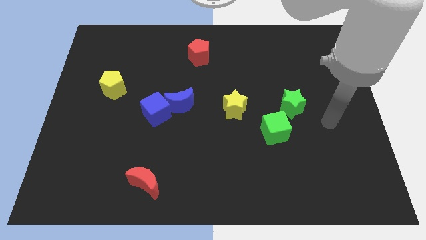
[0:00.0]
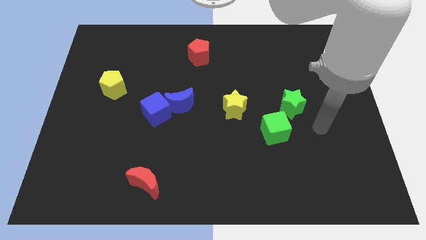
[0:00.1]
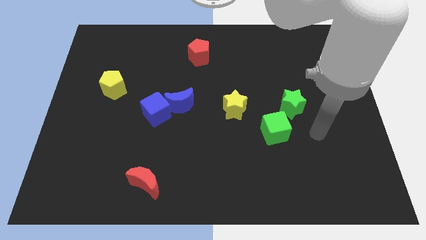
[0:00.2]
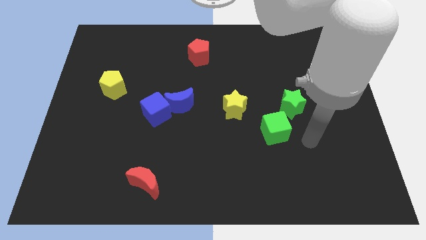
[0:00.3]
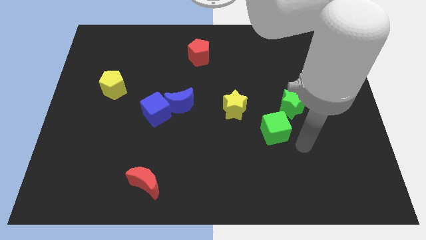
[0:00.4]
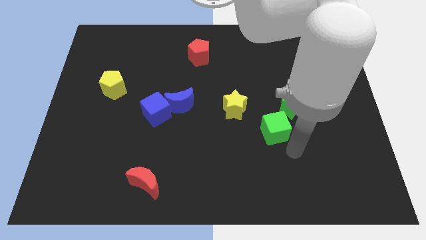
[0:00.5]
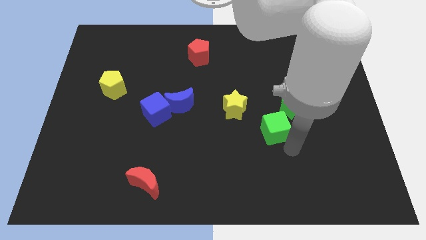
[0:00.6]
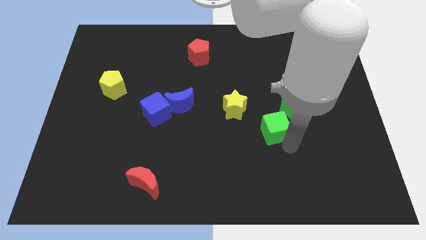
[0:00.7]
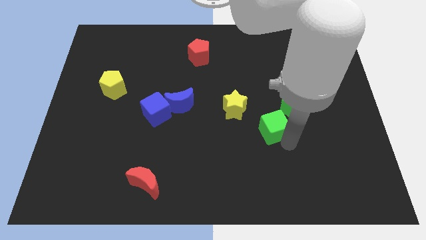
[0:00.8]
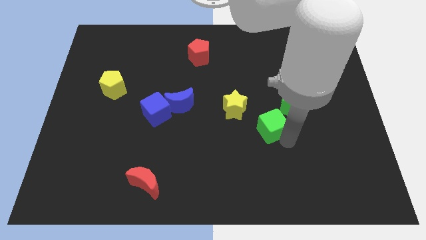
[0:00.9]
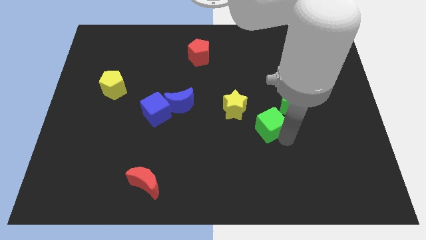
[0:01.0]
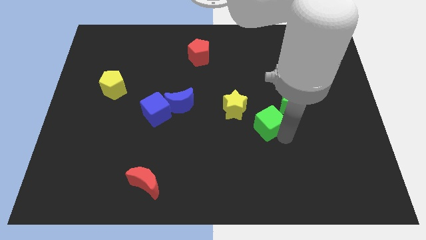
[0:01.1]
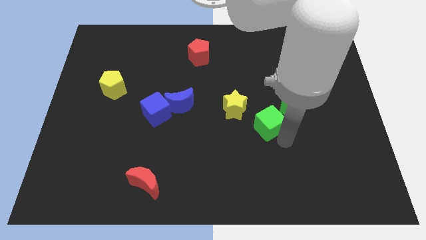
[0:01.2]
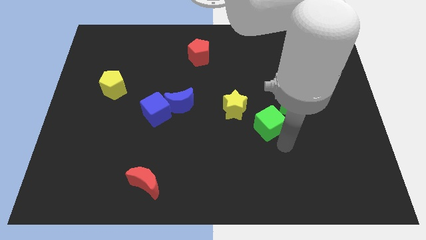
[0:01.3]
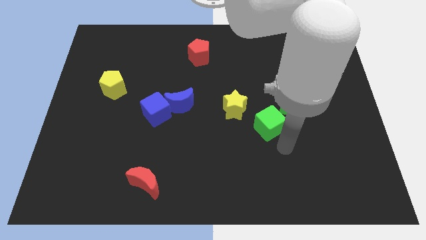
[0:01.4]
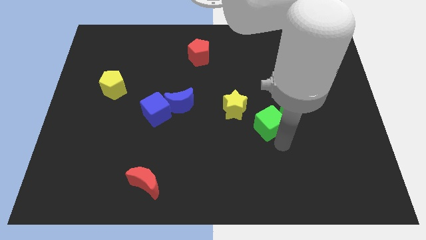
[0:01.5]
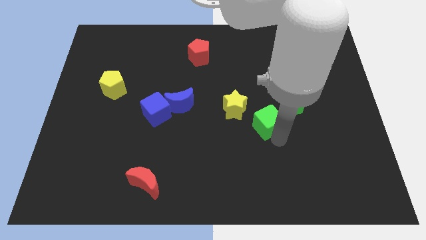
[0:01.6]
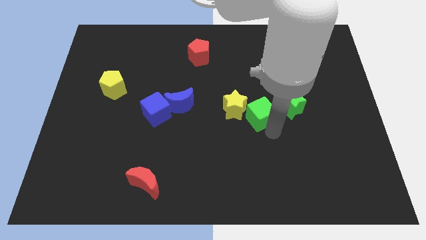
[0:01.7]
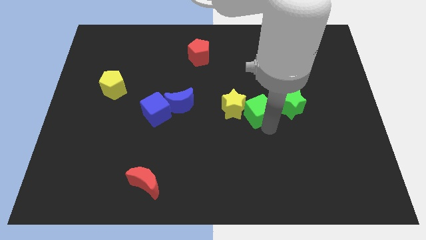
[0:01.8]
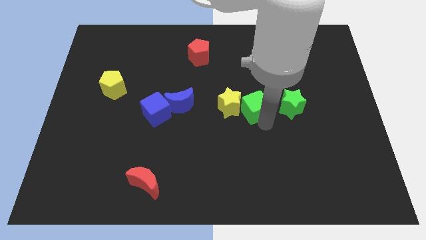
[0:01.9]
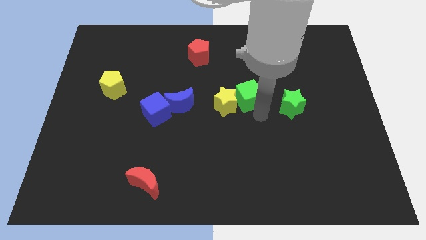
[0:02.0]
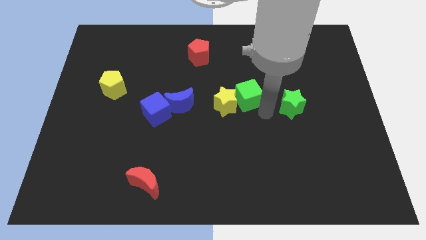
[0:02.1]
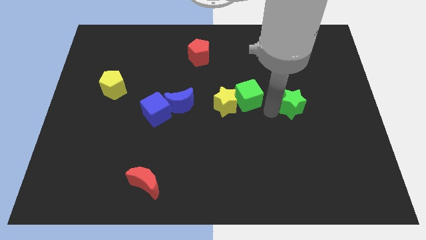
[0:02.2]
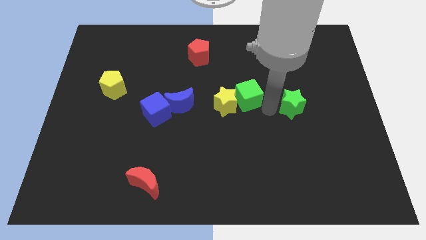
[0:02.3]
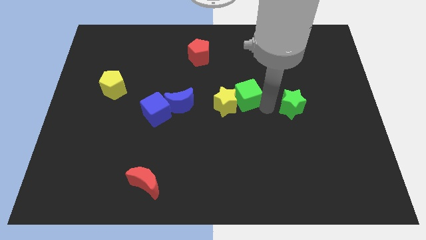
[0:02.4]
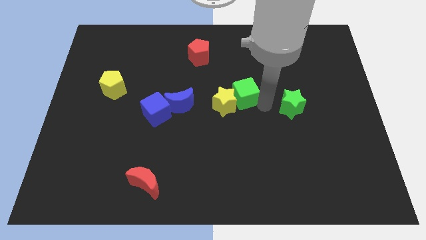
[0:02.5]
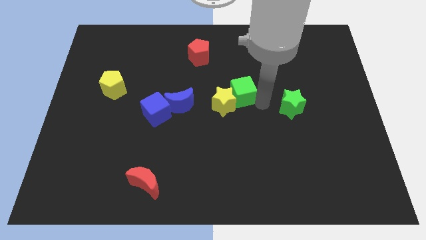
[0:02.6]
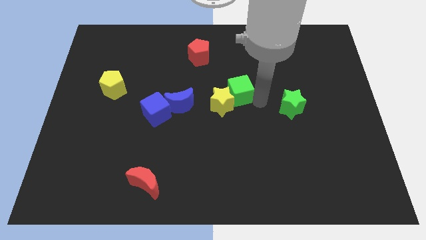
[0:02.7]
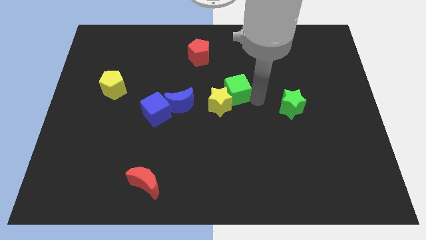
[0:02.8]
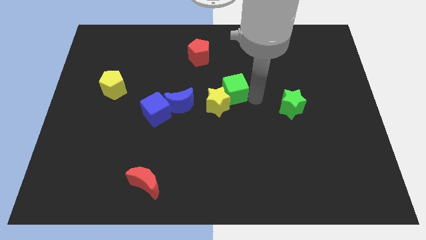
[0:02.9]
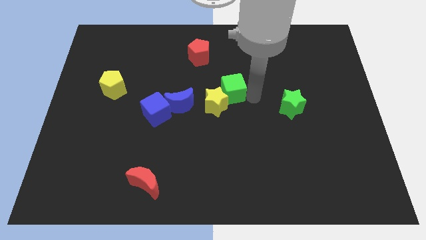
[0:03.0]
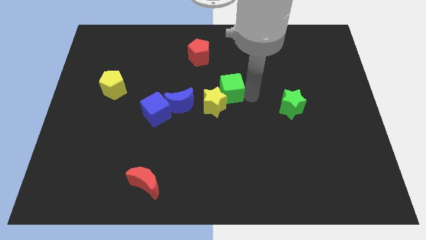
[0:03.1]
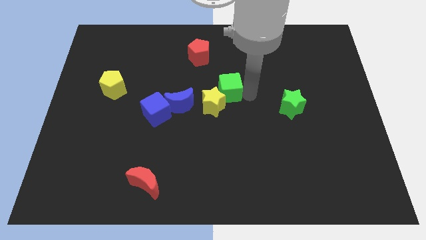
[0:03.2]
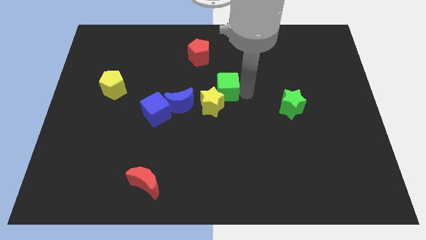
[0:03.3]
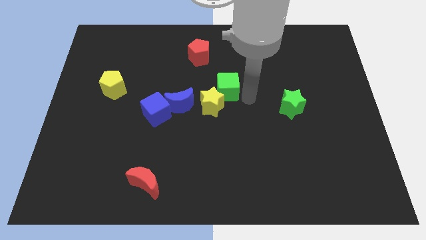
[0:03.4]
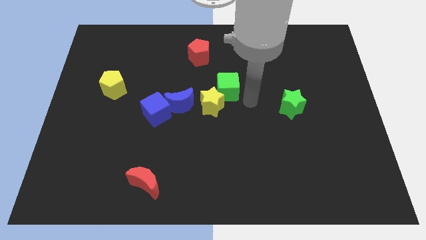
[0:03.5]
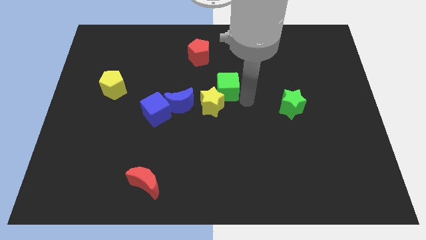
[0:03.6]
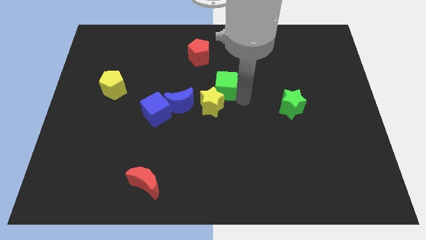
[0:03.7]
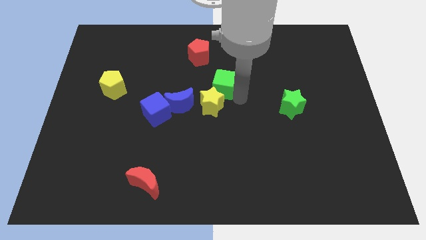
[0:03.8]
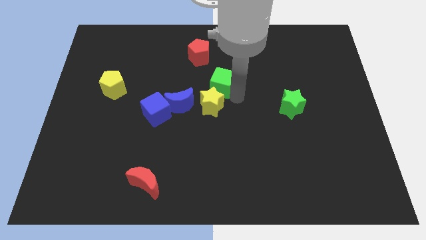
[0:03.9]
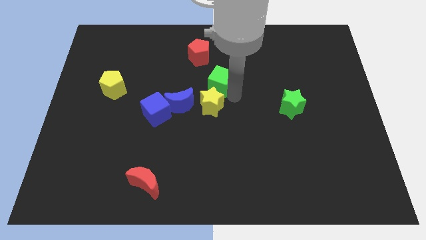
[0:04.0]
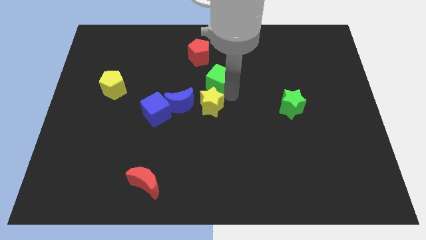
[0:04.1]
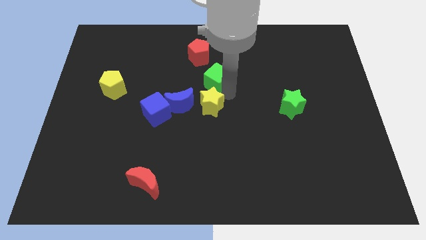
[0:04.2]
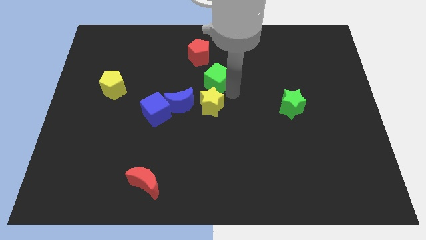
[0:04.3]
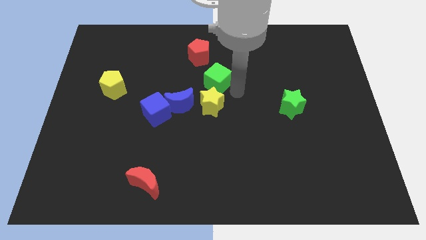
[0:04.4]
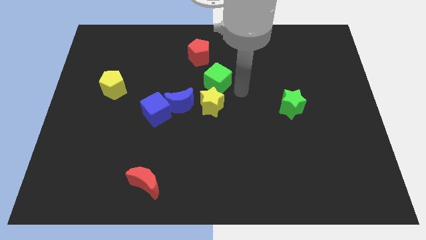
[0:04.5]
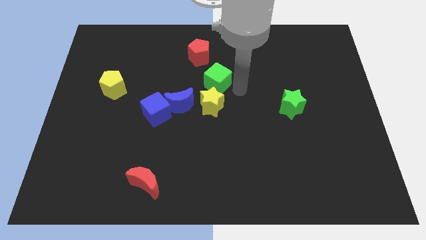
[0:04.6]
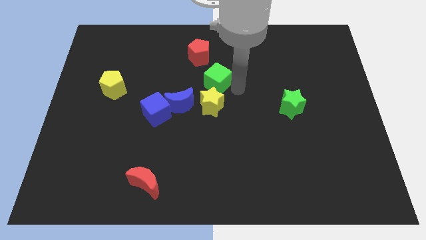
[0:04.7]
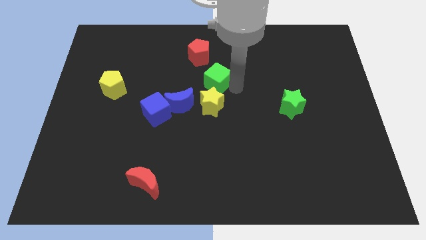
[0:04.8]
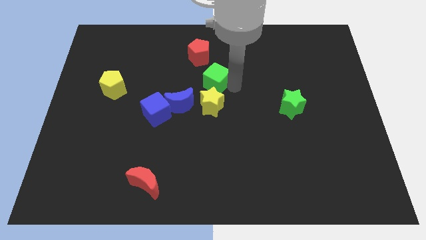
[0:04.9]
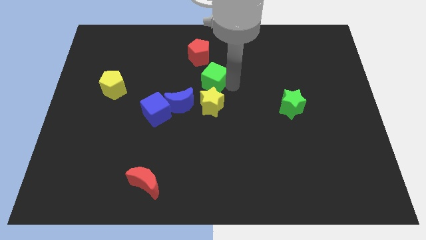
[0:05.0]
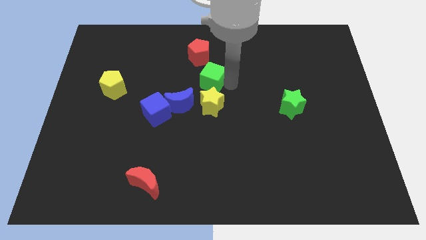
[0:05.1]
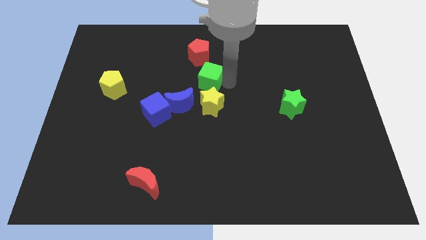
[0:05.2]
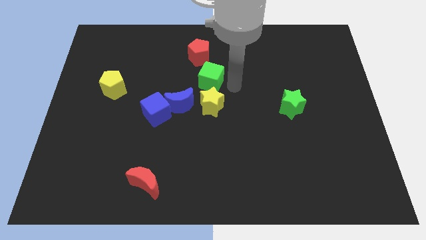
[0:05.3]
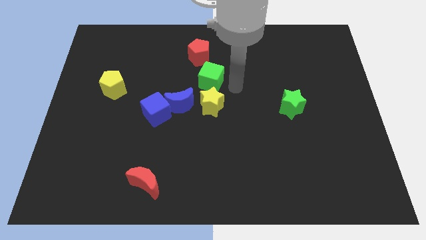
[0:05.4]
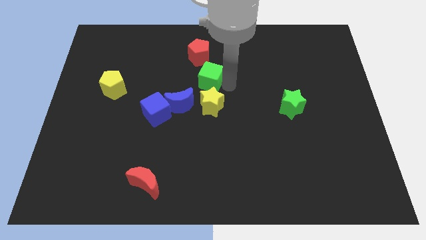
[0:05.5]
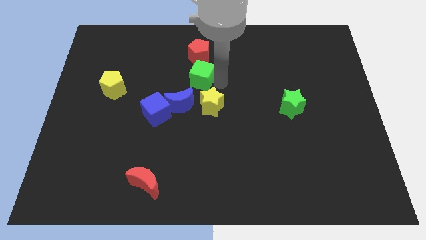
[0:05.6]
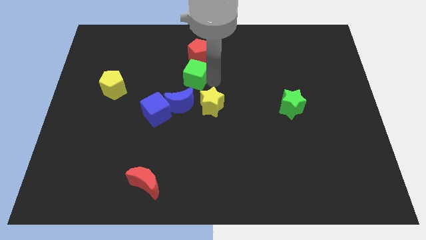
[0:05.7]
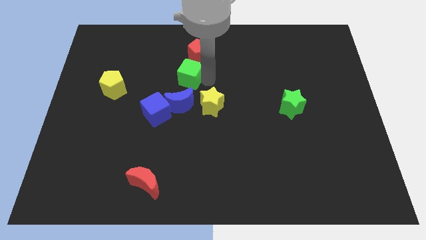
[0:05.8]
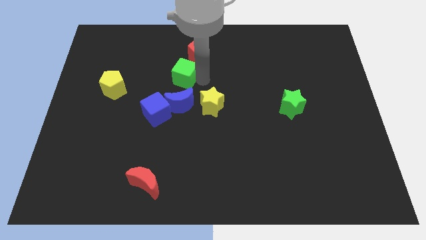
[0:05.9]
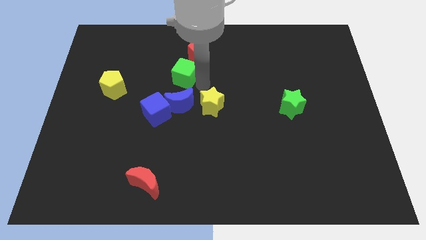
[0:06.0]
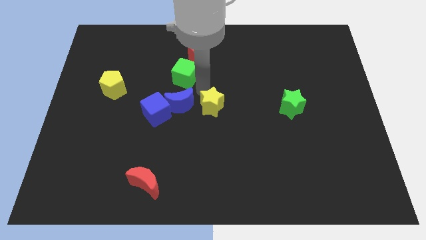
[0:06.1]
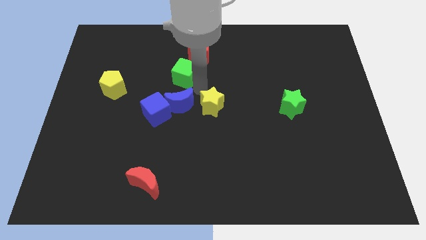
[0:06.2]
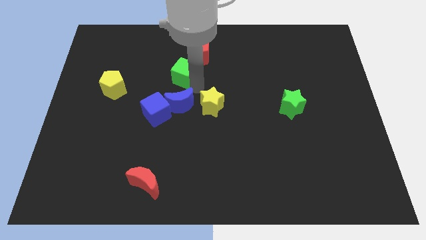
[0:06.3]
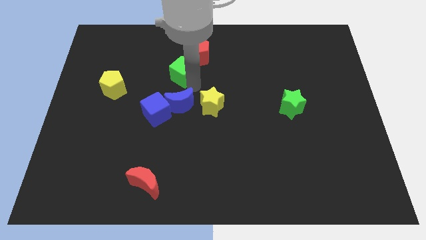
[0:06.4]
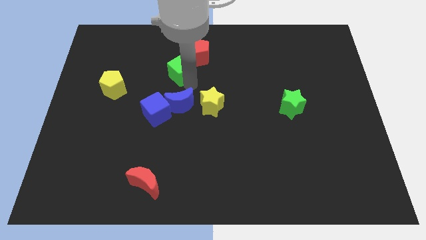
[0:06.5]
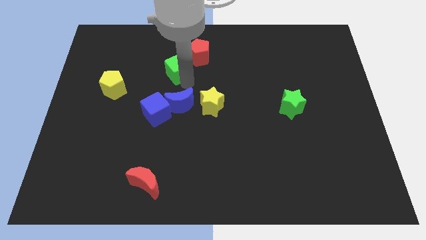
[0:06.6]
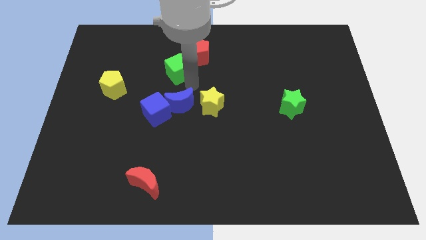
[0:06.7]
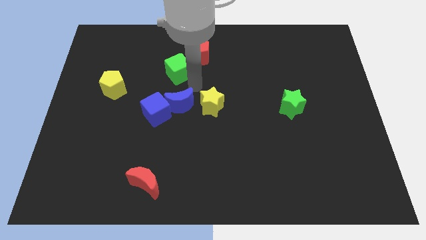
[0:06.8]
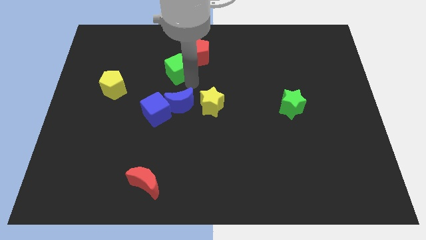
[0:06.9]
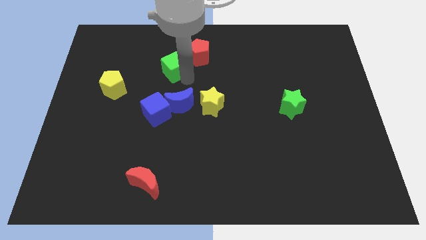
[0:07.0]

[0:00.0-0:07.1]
move the green cube to the left side of the red pentagon
